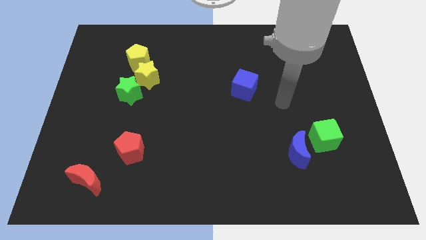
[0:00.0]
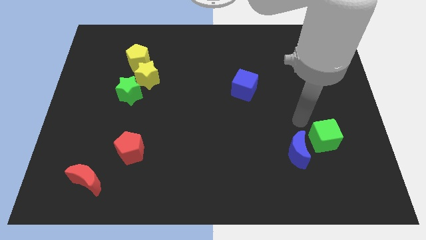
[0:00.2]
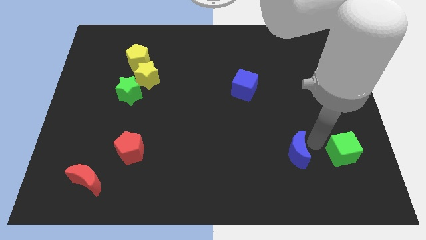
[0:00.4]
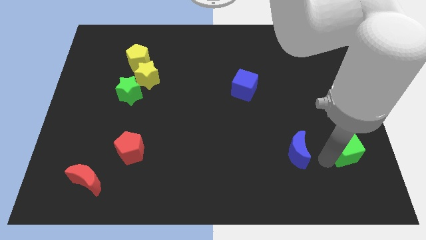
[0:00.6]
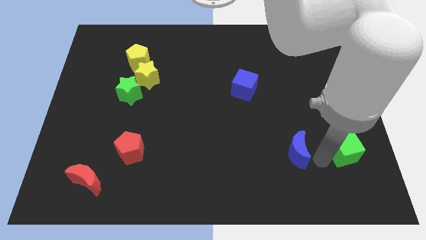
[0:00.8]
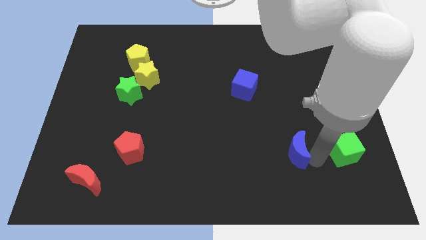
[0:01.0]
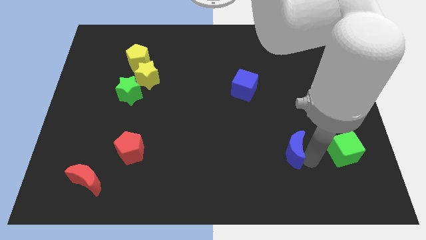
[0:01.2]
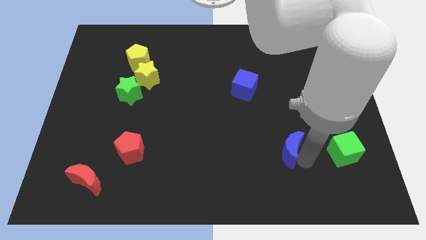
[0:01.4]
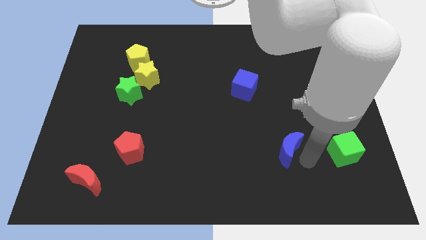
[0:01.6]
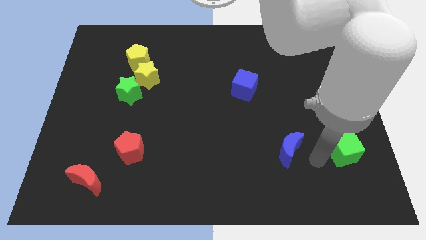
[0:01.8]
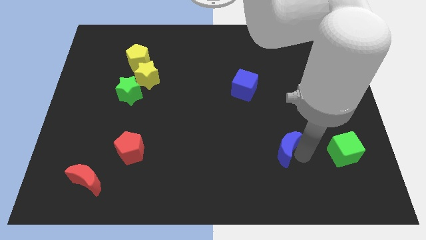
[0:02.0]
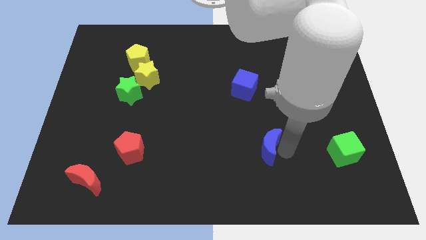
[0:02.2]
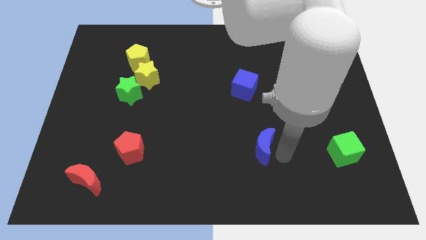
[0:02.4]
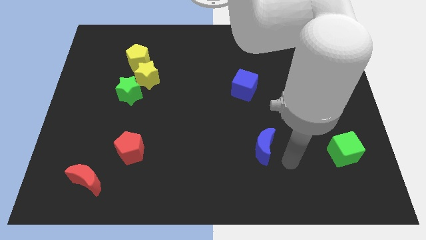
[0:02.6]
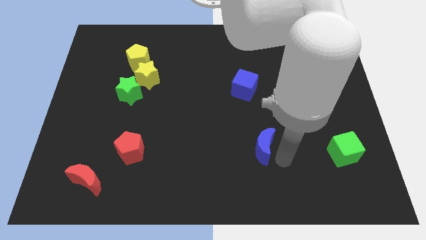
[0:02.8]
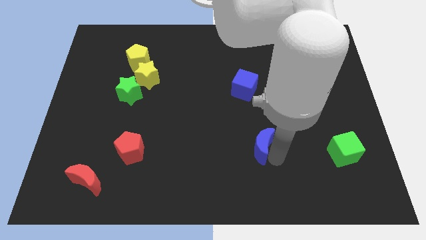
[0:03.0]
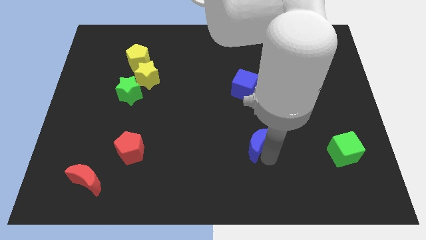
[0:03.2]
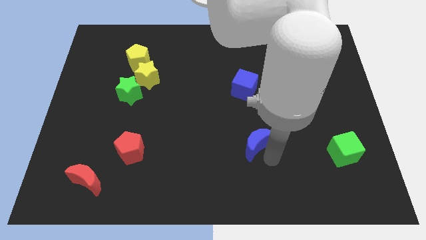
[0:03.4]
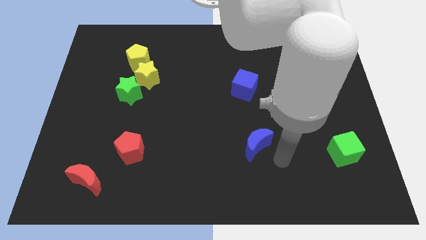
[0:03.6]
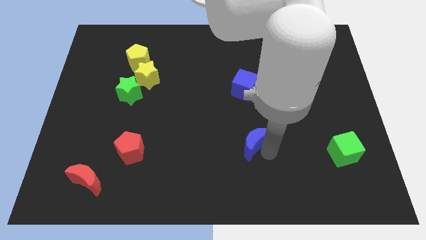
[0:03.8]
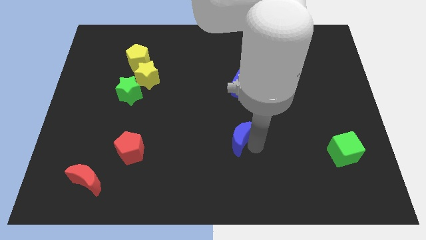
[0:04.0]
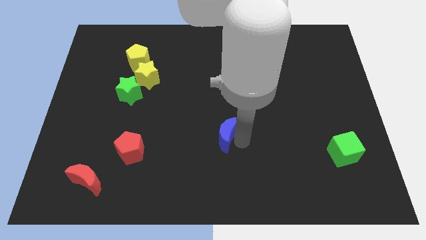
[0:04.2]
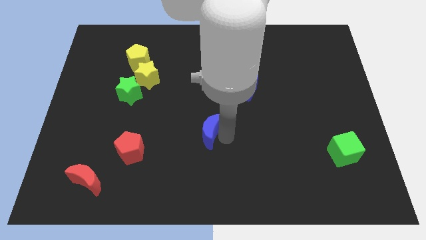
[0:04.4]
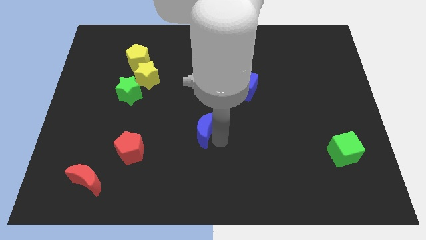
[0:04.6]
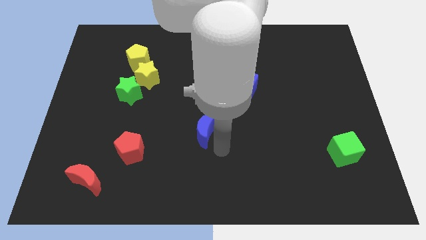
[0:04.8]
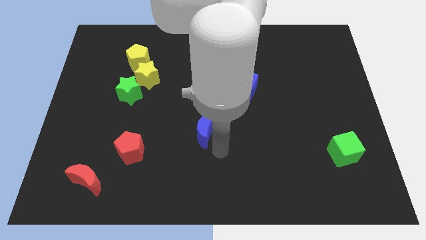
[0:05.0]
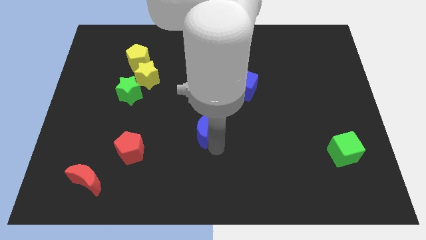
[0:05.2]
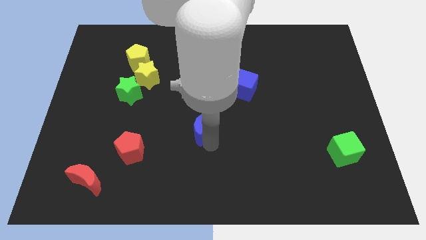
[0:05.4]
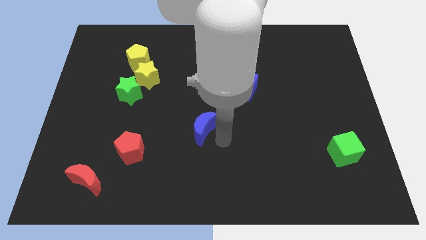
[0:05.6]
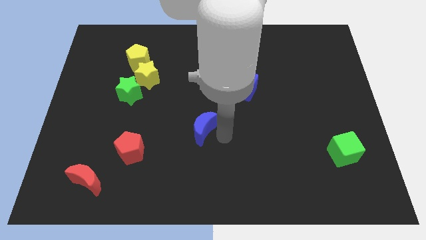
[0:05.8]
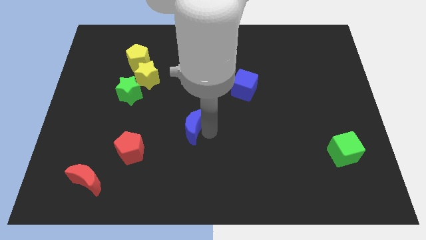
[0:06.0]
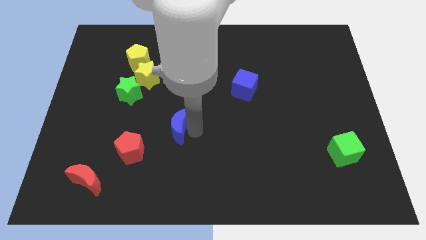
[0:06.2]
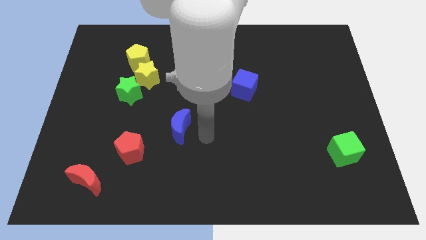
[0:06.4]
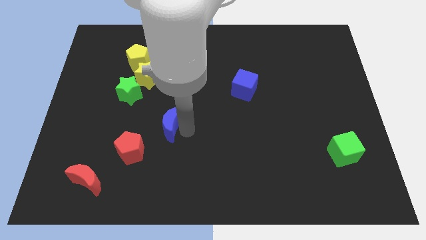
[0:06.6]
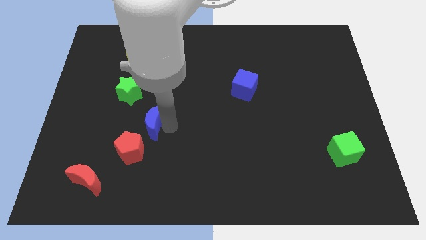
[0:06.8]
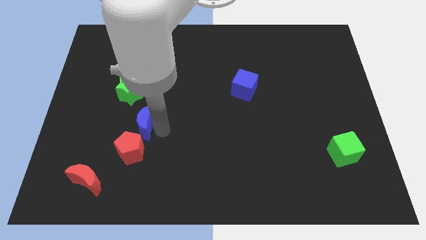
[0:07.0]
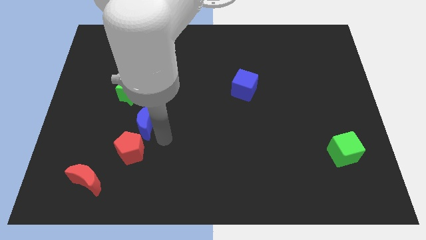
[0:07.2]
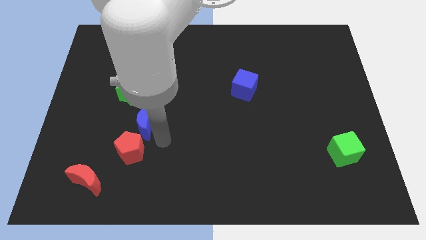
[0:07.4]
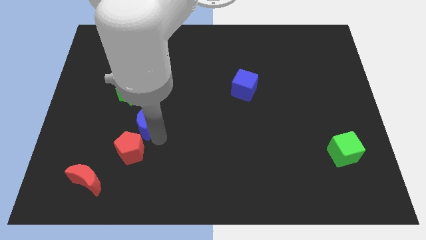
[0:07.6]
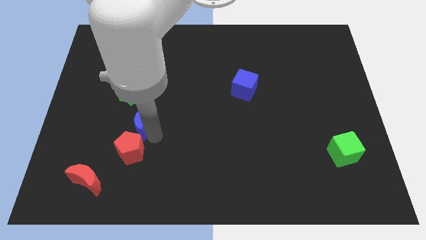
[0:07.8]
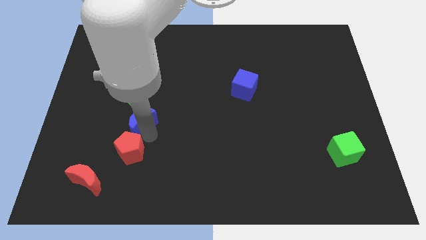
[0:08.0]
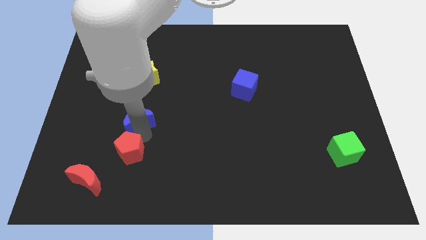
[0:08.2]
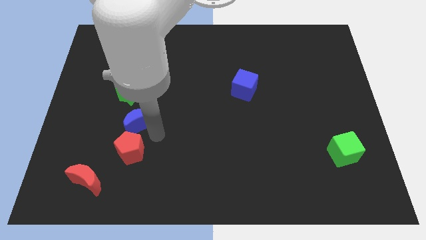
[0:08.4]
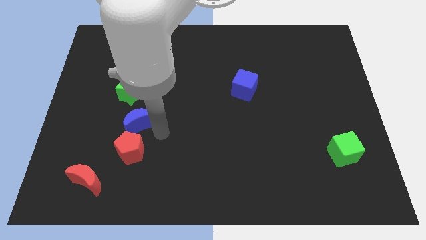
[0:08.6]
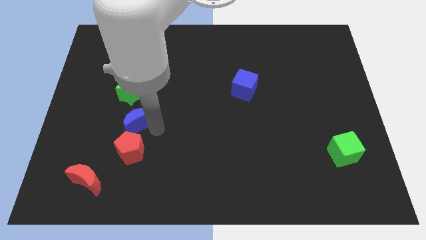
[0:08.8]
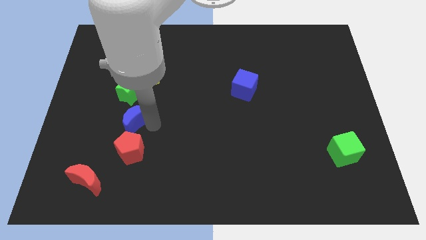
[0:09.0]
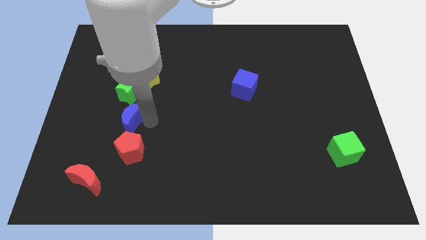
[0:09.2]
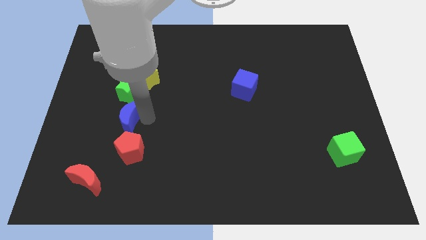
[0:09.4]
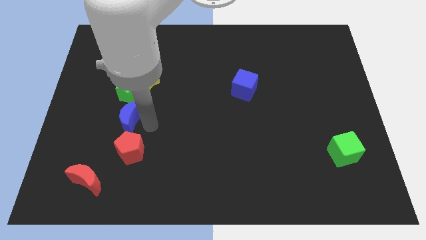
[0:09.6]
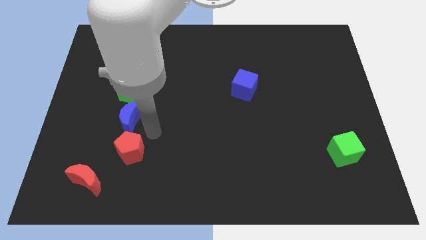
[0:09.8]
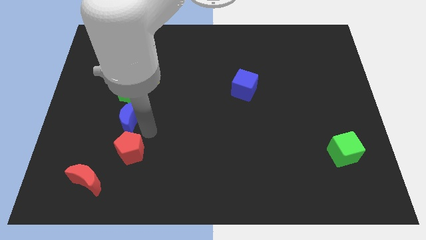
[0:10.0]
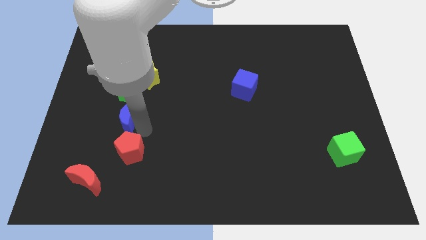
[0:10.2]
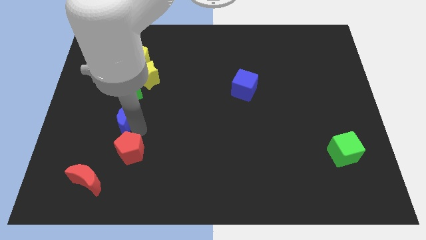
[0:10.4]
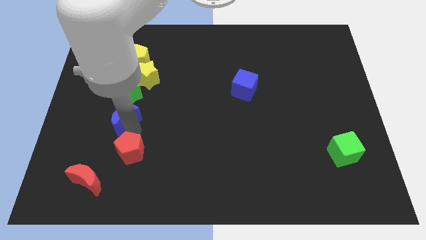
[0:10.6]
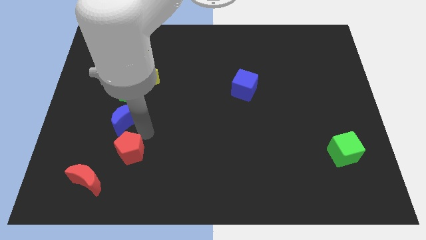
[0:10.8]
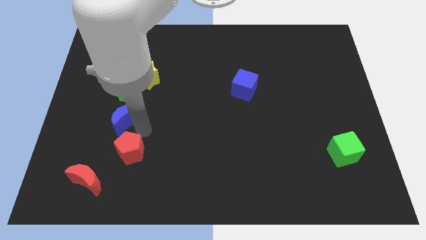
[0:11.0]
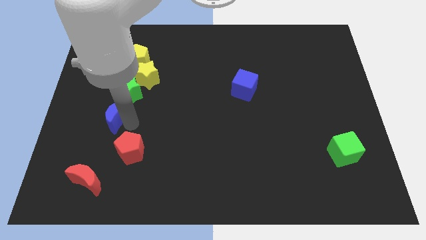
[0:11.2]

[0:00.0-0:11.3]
push the blue moon to the bottom left of the green star

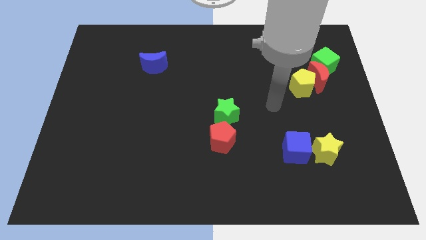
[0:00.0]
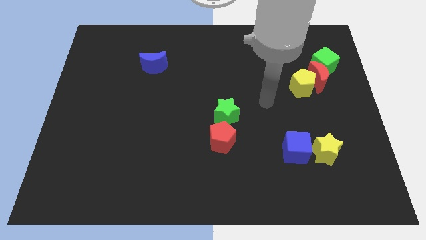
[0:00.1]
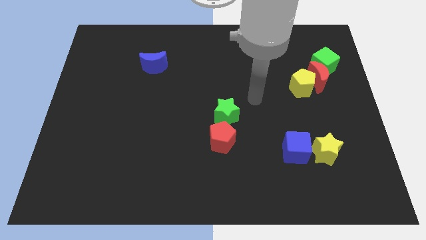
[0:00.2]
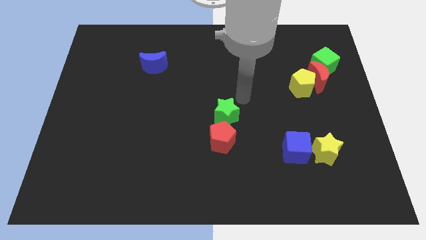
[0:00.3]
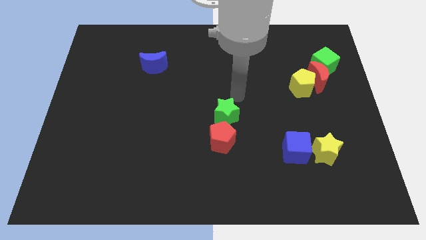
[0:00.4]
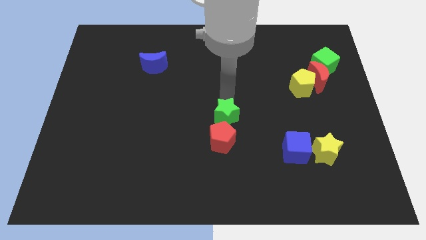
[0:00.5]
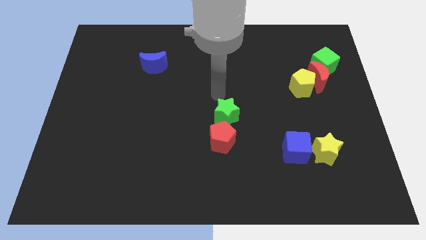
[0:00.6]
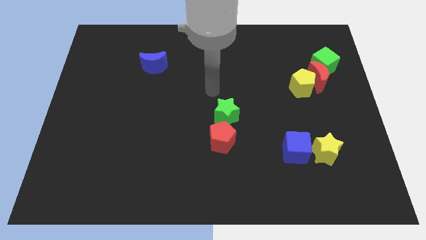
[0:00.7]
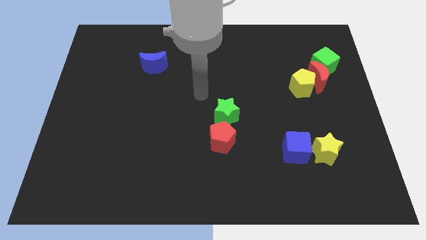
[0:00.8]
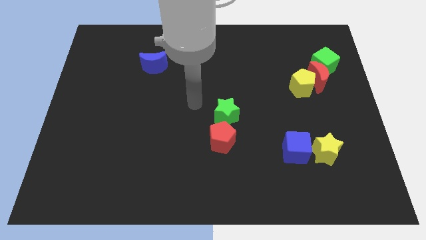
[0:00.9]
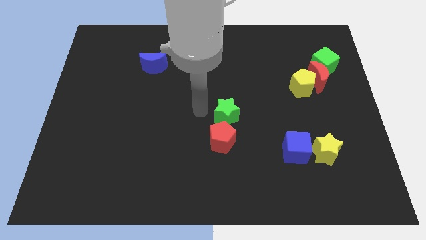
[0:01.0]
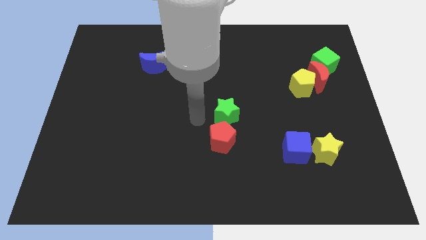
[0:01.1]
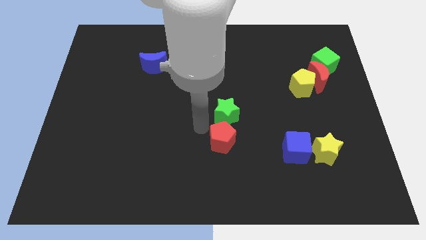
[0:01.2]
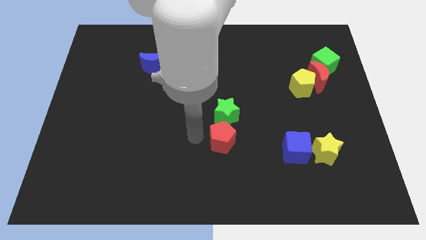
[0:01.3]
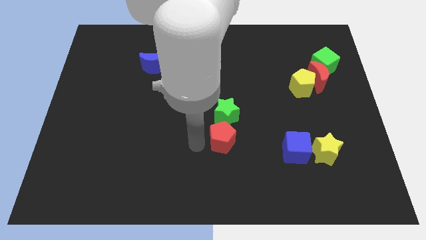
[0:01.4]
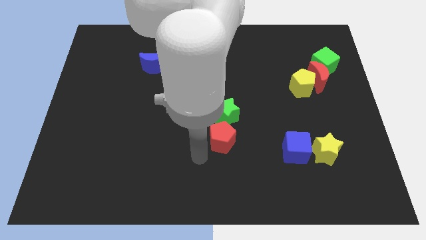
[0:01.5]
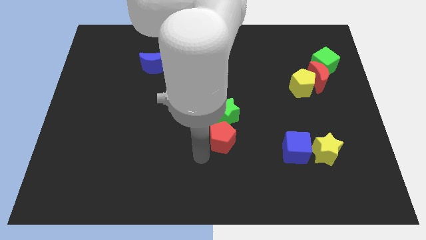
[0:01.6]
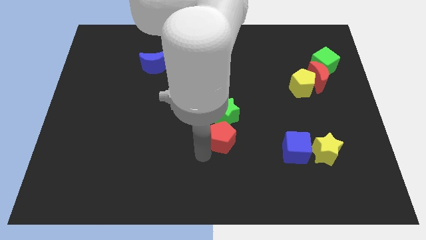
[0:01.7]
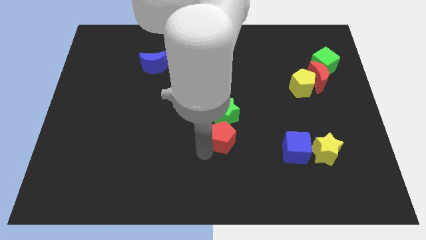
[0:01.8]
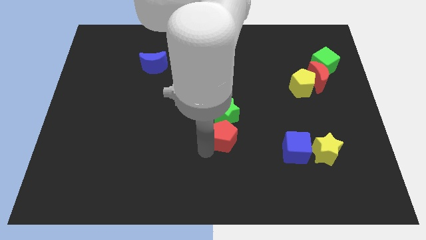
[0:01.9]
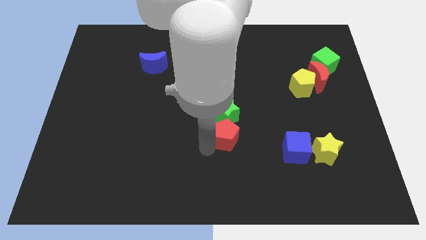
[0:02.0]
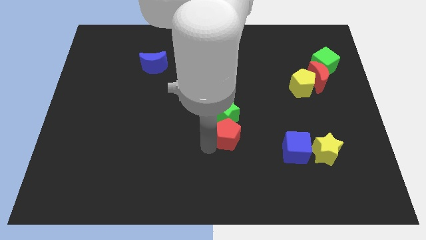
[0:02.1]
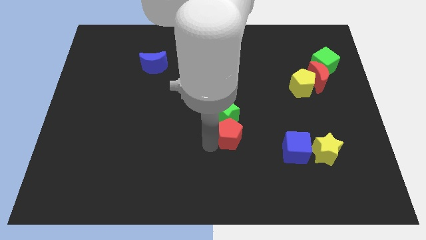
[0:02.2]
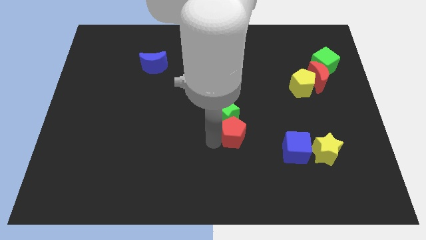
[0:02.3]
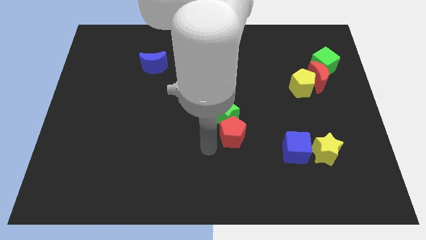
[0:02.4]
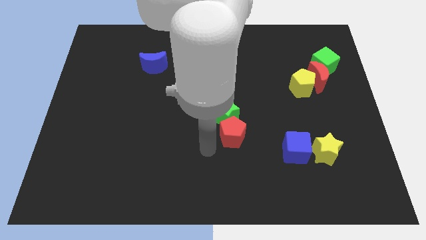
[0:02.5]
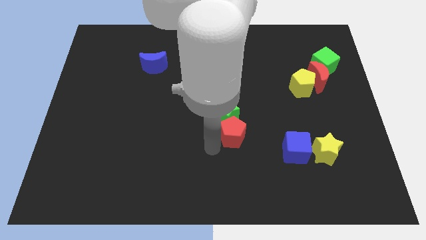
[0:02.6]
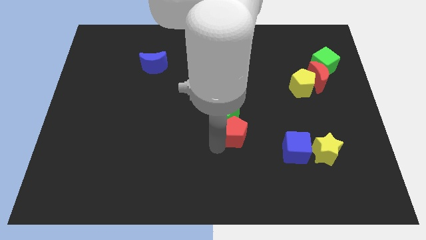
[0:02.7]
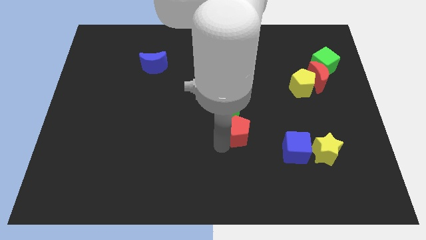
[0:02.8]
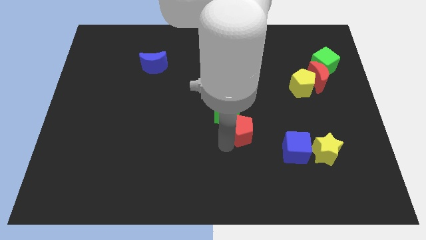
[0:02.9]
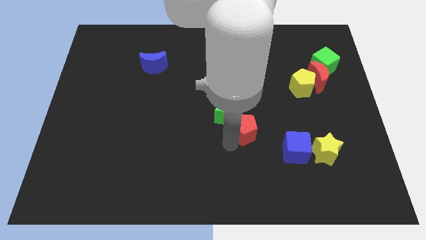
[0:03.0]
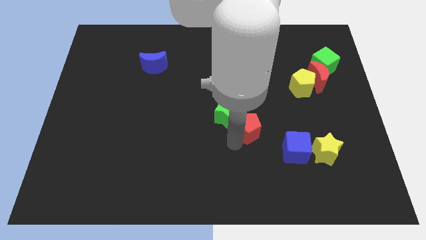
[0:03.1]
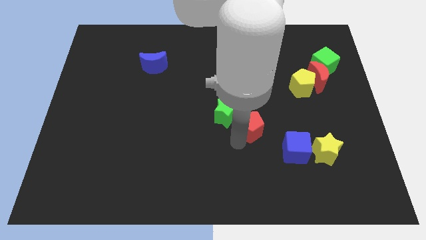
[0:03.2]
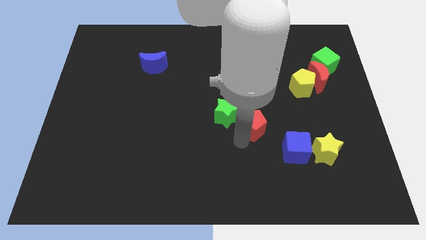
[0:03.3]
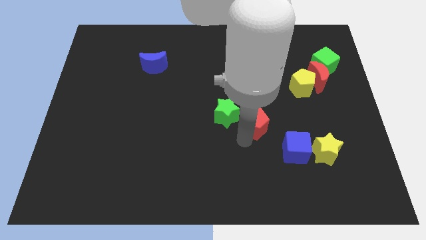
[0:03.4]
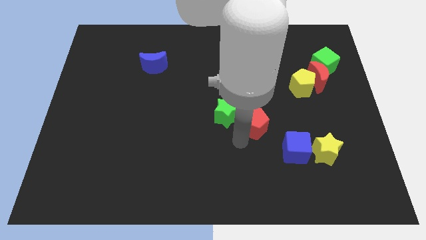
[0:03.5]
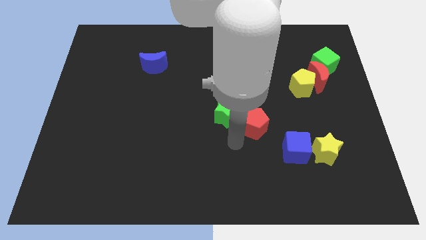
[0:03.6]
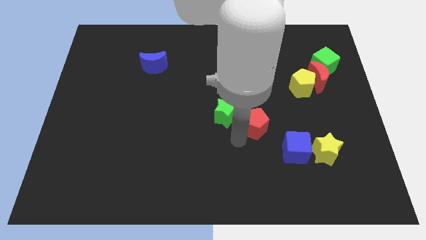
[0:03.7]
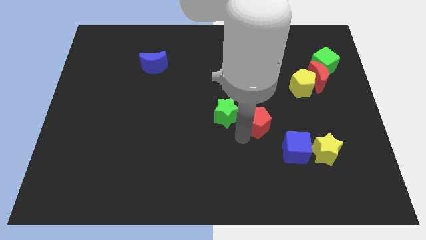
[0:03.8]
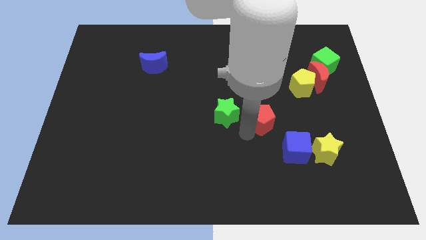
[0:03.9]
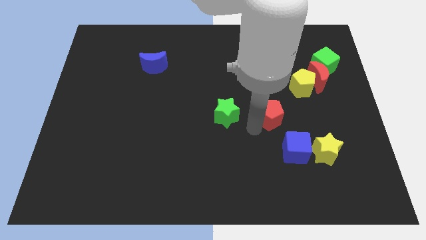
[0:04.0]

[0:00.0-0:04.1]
move the red pentagon to the bottom left side of the yellow pentagon
